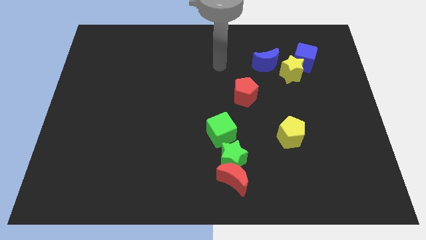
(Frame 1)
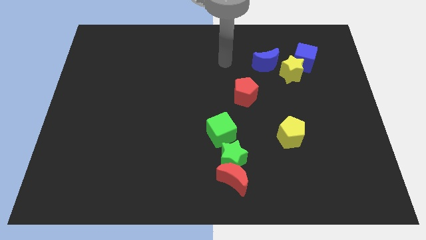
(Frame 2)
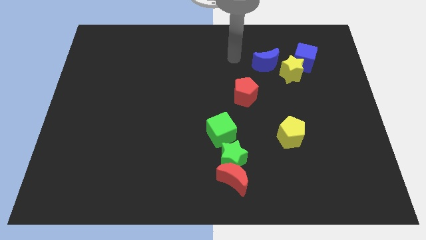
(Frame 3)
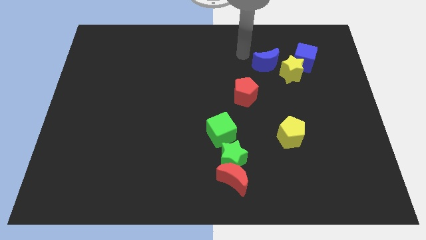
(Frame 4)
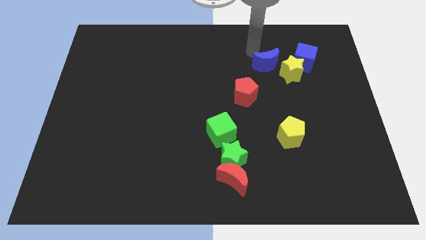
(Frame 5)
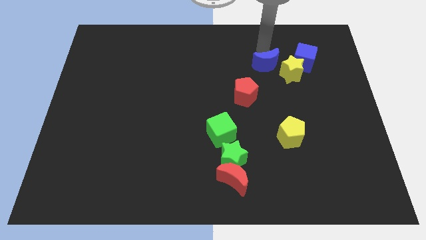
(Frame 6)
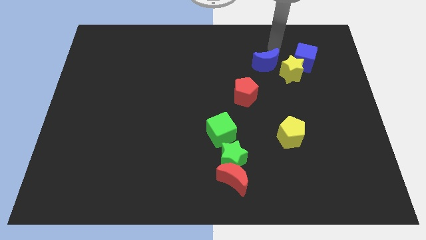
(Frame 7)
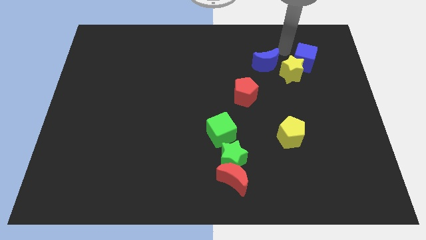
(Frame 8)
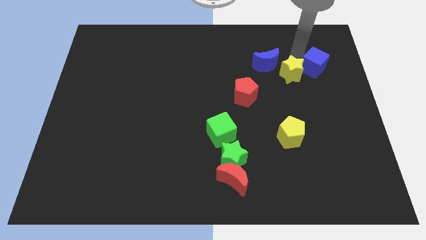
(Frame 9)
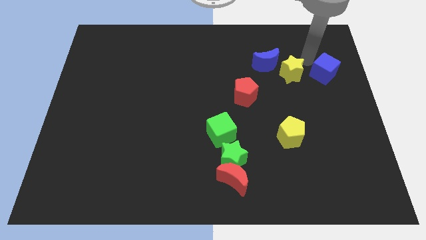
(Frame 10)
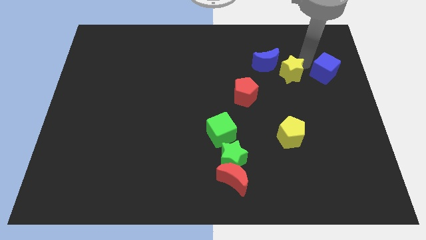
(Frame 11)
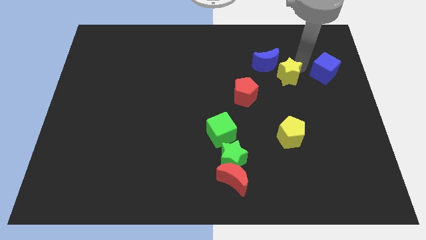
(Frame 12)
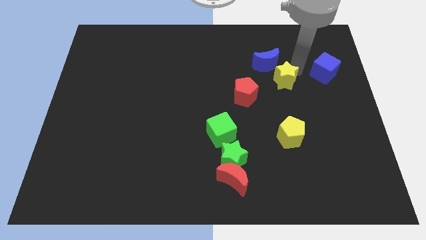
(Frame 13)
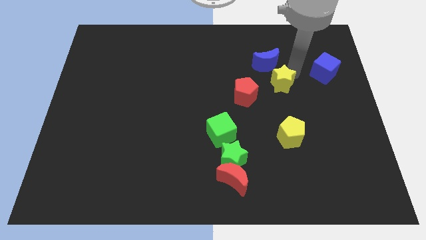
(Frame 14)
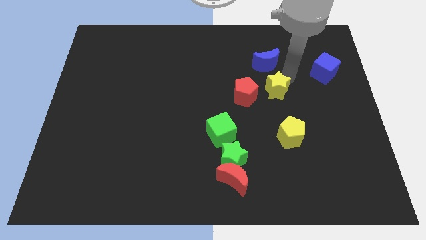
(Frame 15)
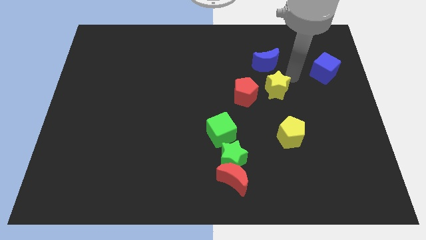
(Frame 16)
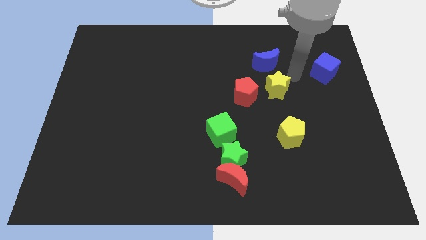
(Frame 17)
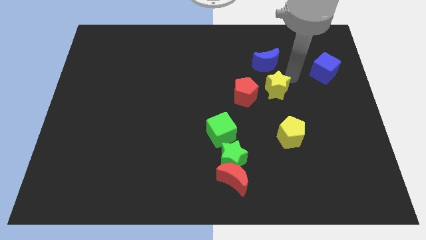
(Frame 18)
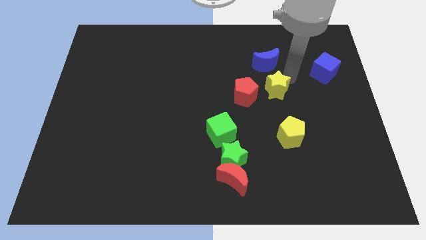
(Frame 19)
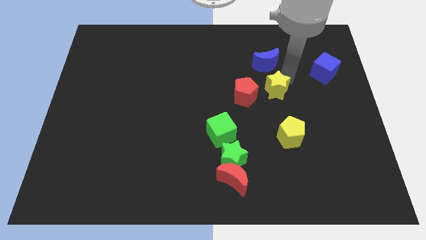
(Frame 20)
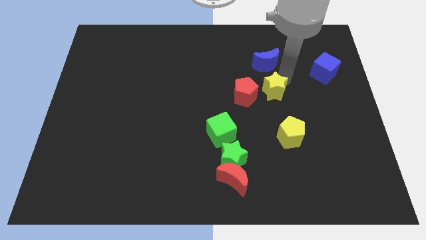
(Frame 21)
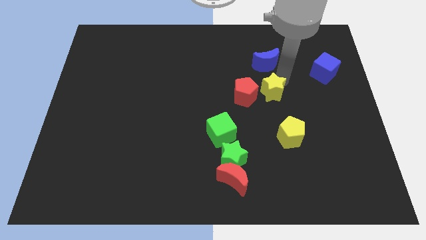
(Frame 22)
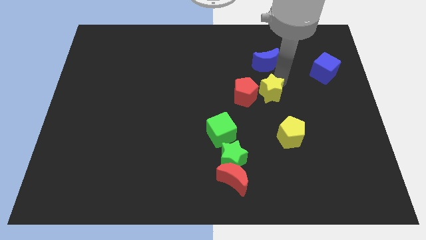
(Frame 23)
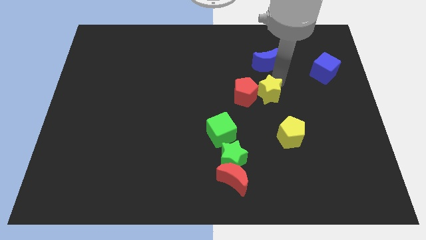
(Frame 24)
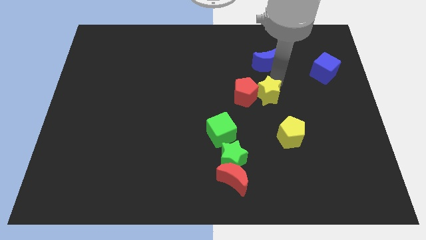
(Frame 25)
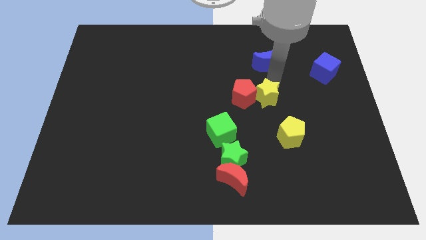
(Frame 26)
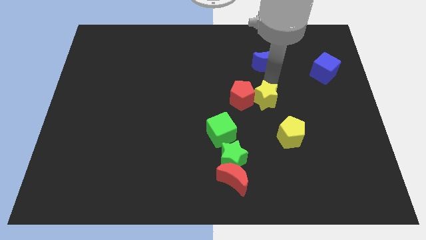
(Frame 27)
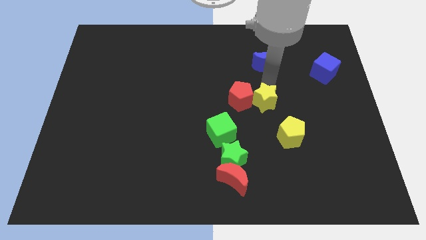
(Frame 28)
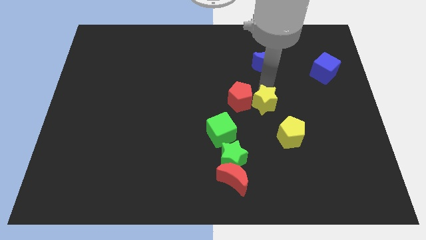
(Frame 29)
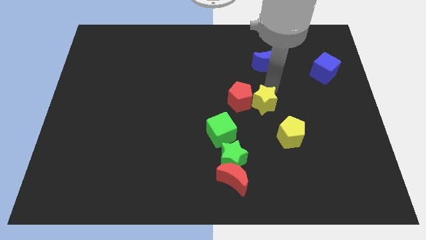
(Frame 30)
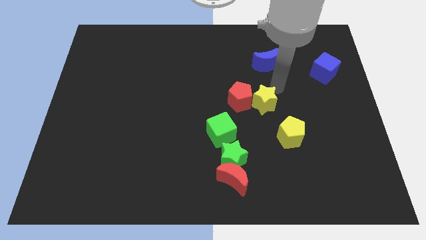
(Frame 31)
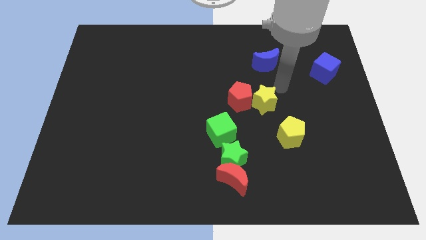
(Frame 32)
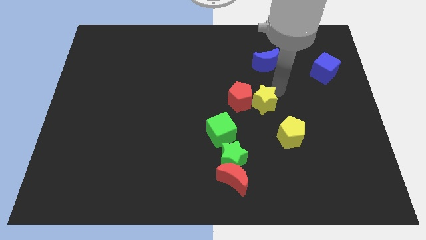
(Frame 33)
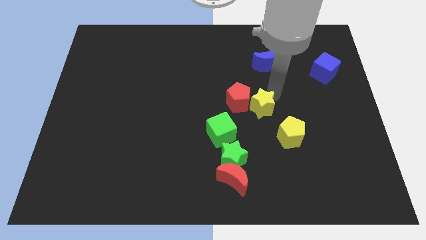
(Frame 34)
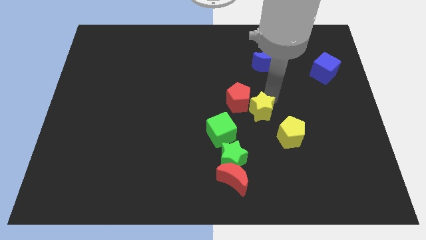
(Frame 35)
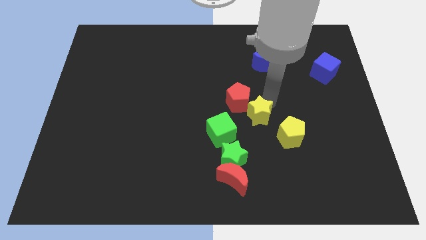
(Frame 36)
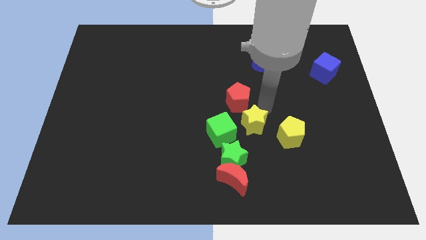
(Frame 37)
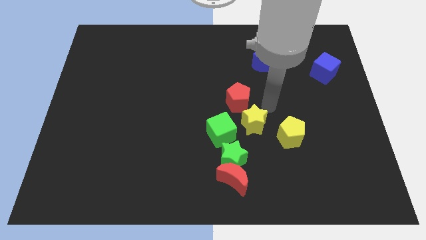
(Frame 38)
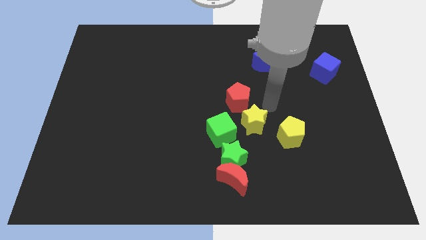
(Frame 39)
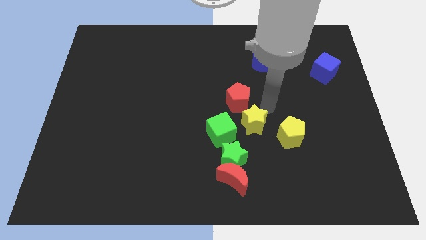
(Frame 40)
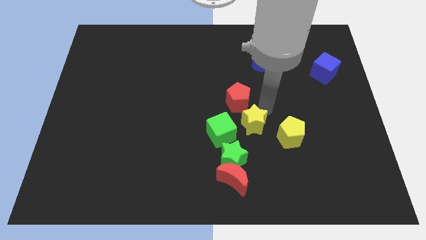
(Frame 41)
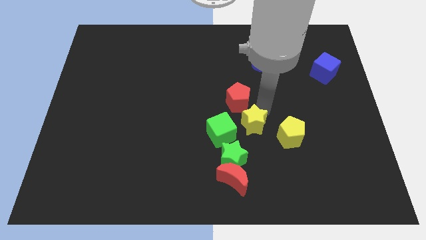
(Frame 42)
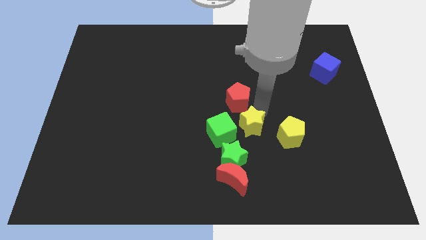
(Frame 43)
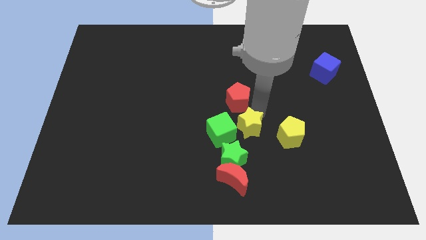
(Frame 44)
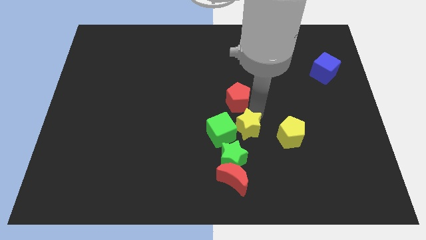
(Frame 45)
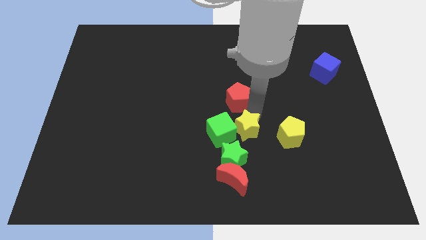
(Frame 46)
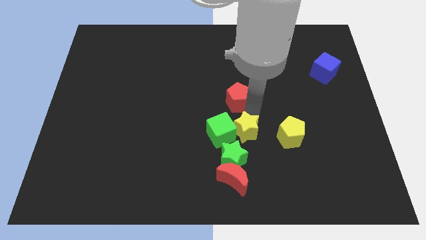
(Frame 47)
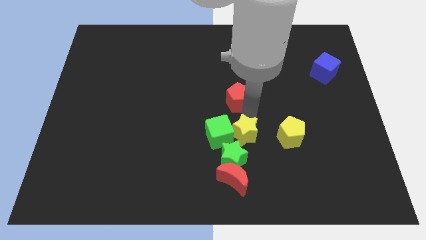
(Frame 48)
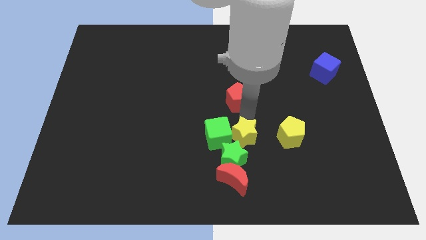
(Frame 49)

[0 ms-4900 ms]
move the yellow star next to the green star

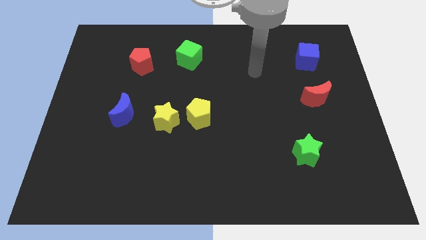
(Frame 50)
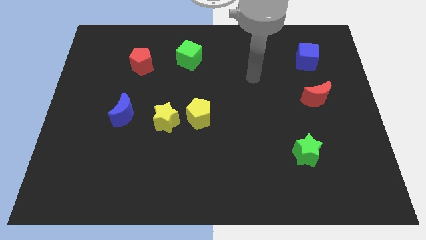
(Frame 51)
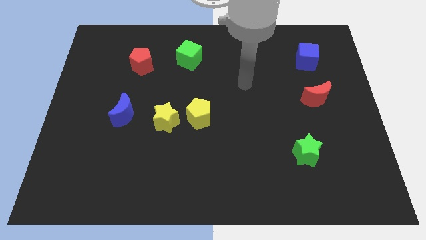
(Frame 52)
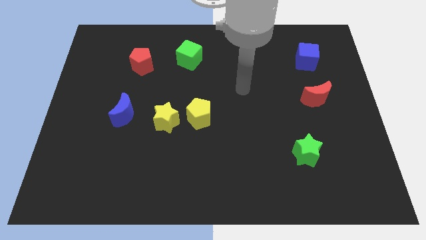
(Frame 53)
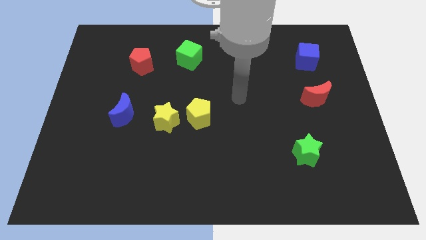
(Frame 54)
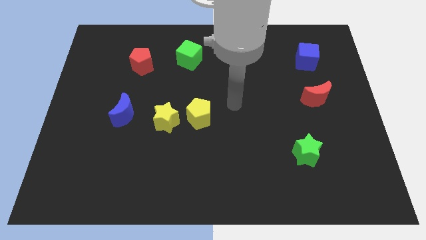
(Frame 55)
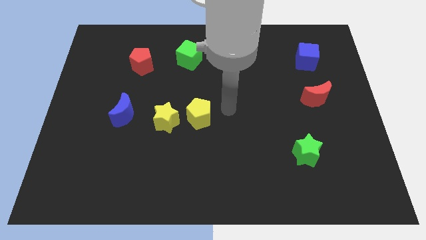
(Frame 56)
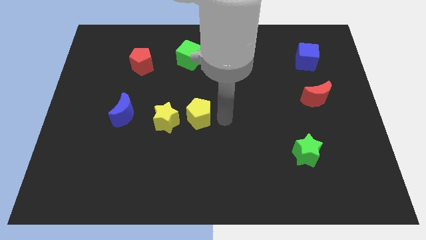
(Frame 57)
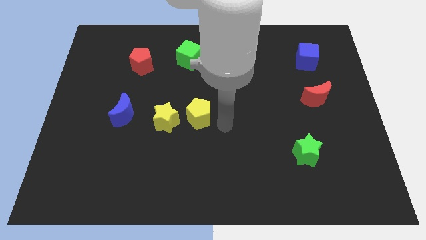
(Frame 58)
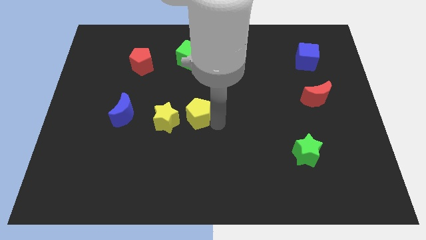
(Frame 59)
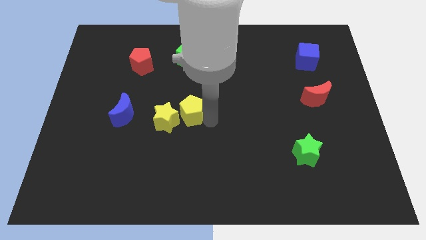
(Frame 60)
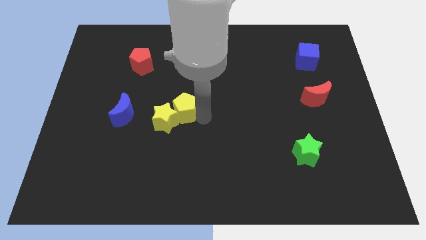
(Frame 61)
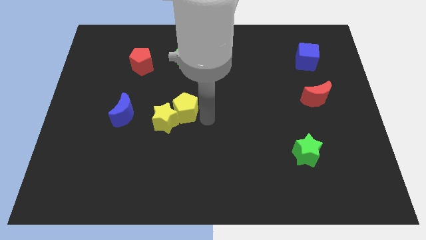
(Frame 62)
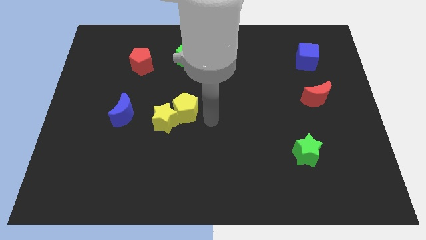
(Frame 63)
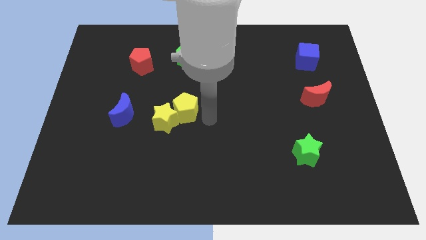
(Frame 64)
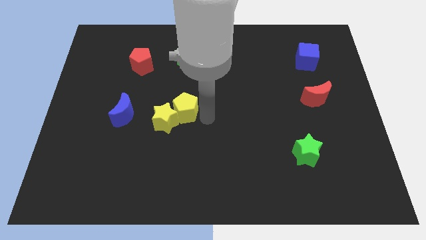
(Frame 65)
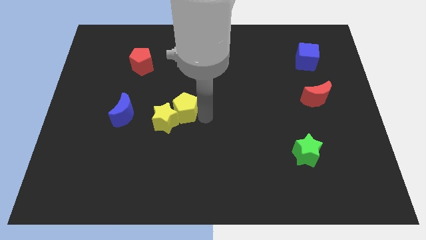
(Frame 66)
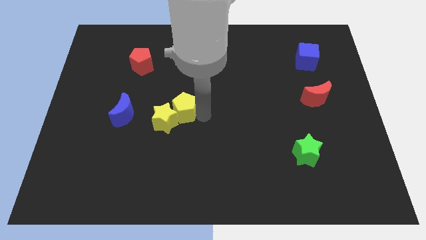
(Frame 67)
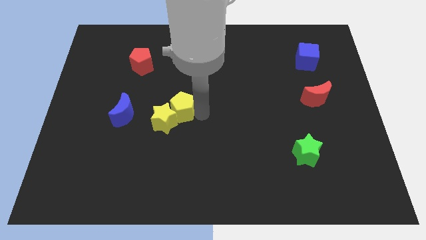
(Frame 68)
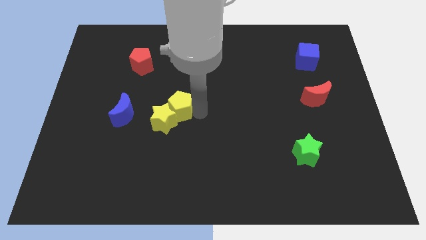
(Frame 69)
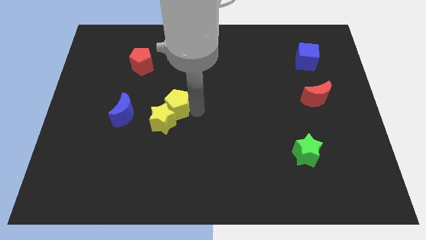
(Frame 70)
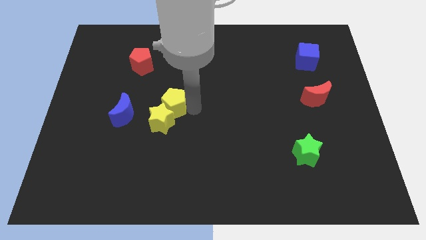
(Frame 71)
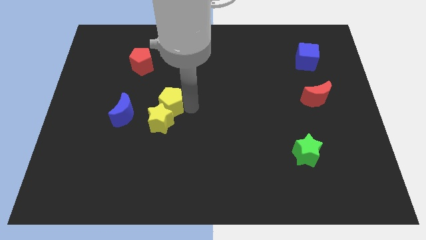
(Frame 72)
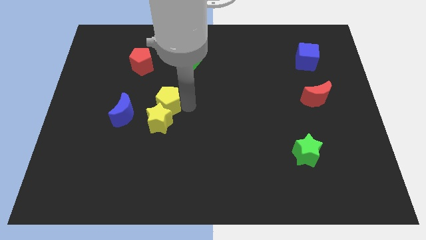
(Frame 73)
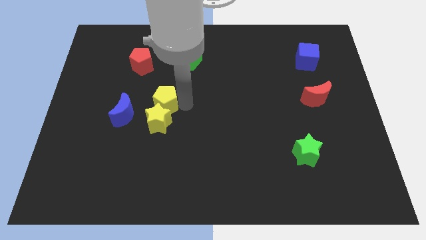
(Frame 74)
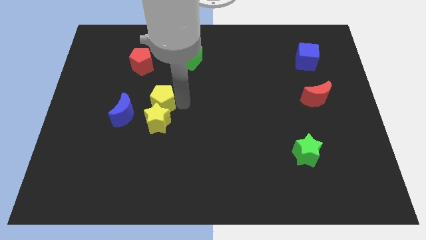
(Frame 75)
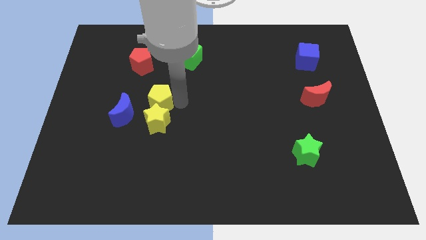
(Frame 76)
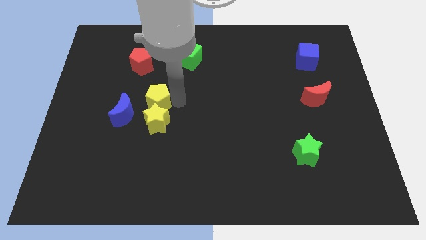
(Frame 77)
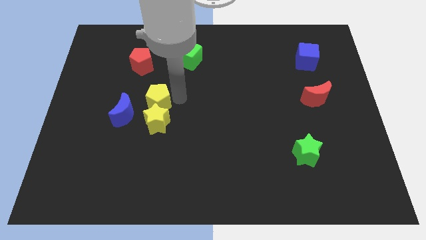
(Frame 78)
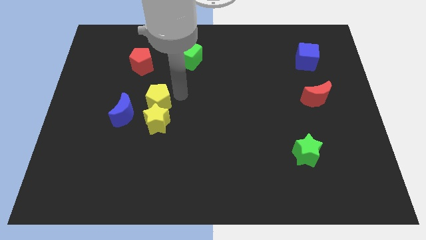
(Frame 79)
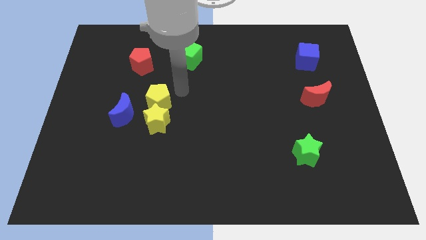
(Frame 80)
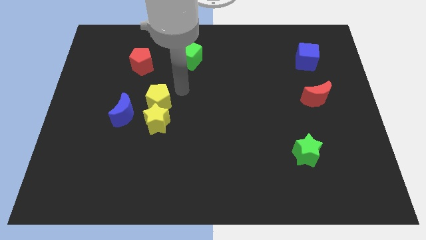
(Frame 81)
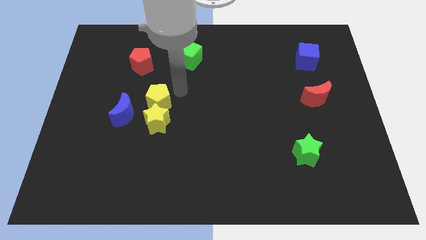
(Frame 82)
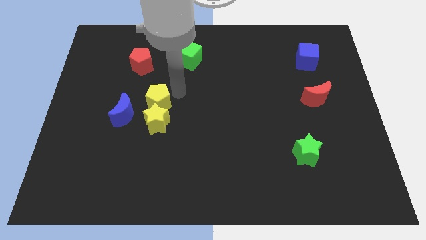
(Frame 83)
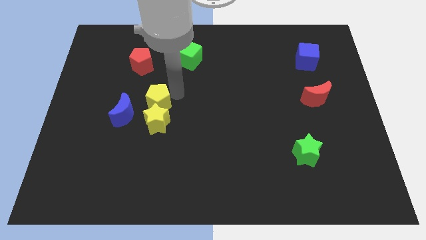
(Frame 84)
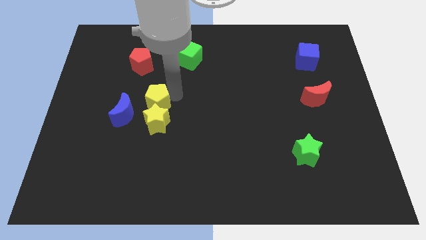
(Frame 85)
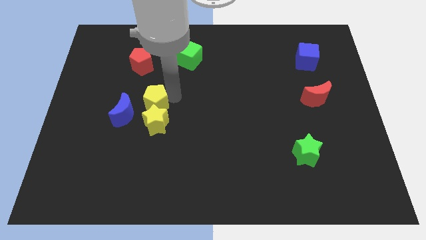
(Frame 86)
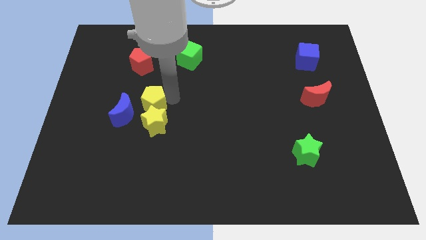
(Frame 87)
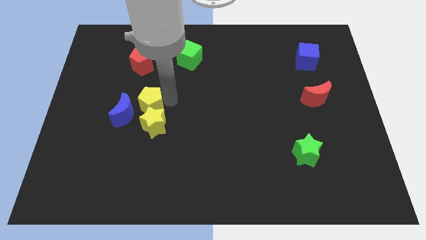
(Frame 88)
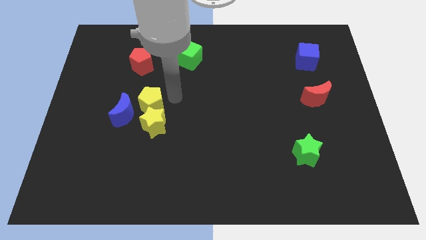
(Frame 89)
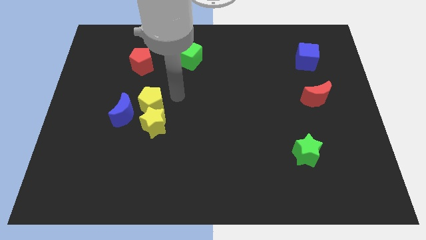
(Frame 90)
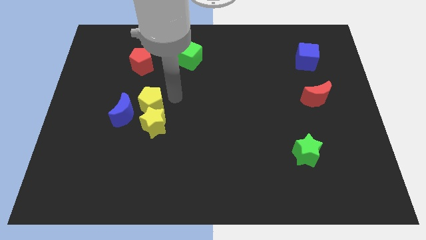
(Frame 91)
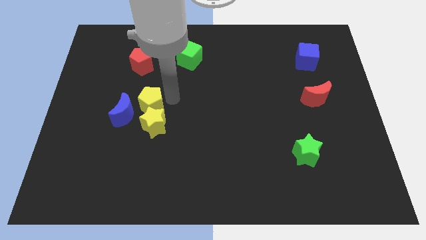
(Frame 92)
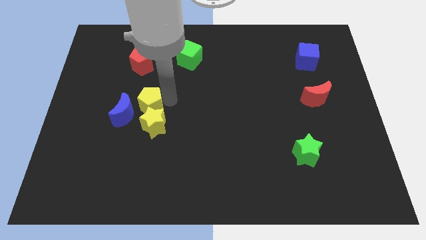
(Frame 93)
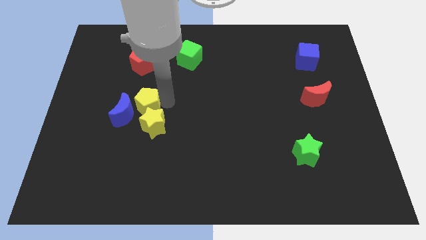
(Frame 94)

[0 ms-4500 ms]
put the yellow pentagon next to the blue moon
